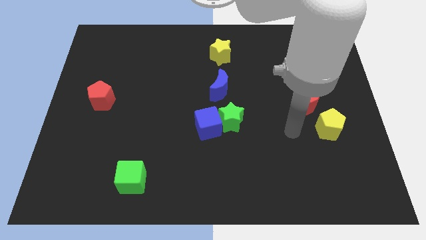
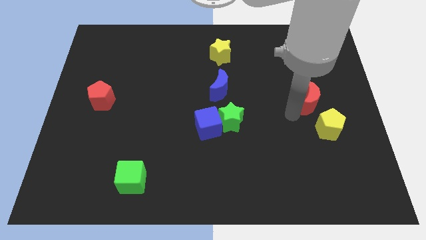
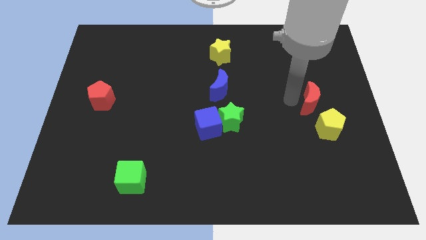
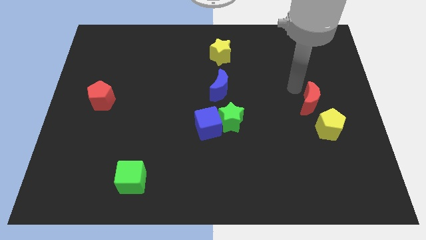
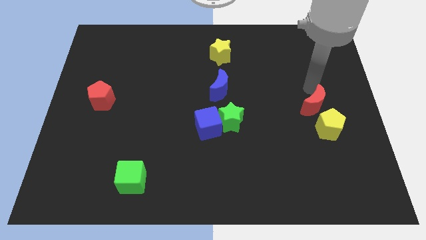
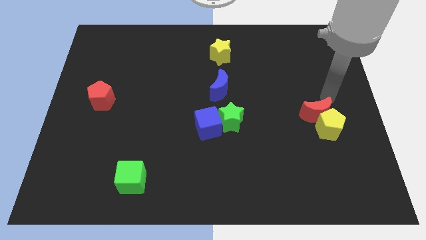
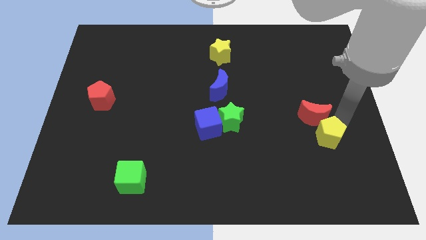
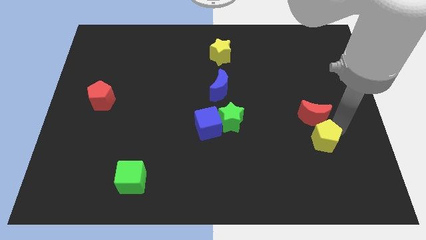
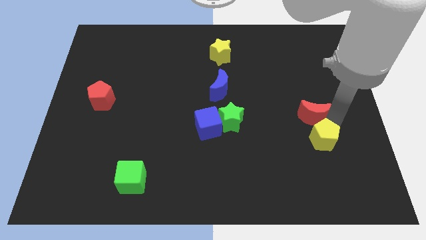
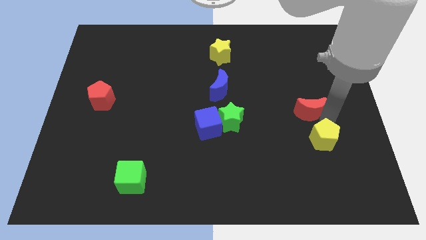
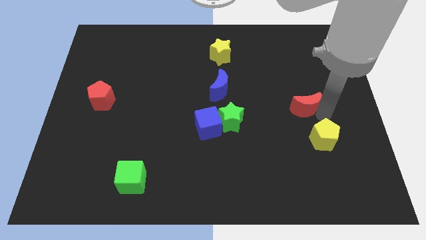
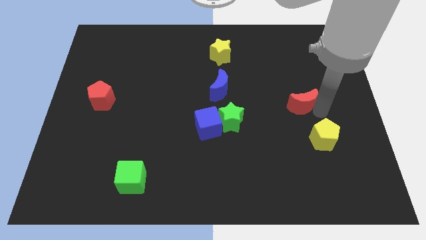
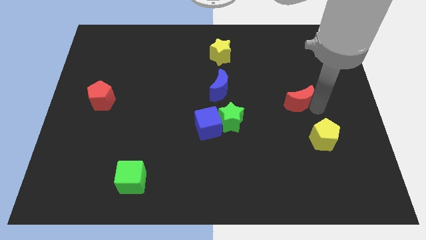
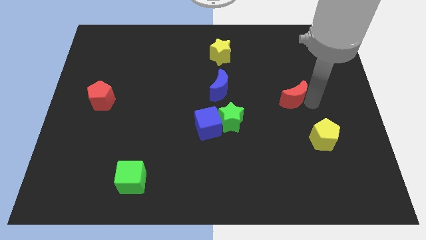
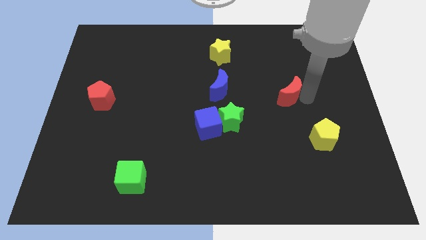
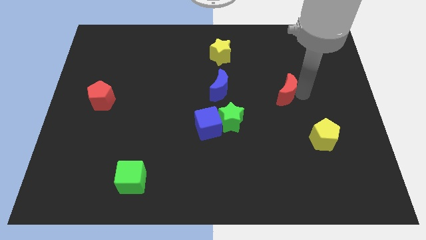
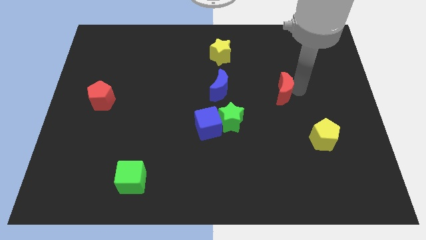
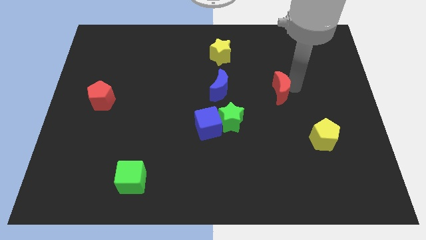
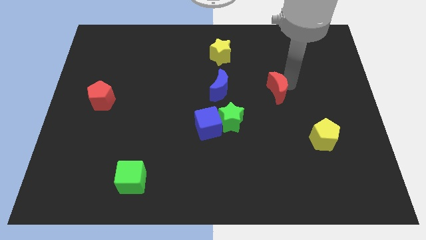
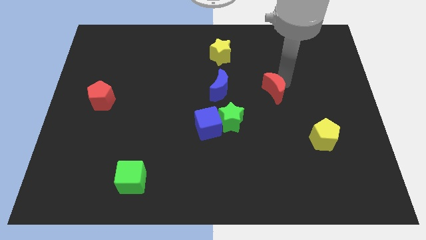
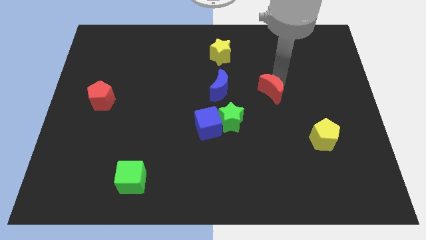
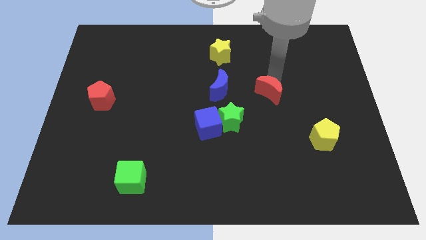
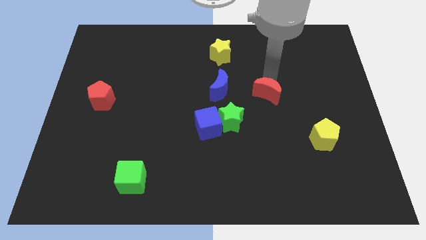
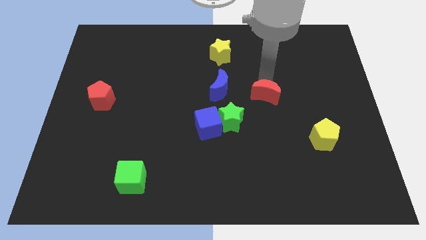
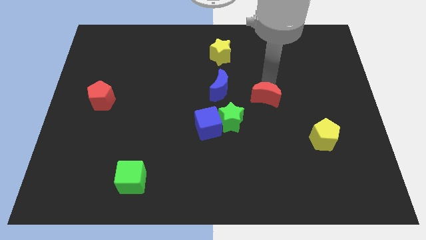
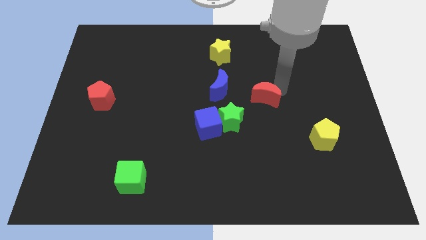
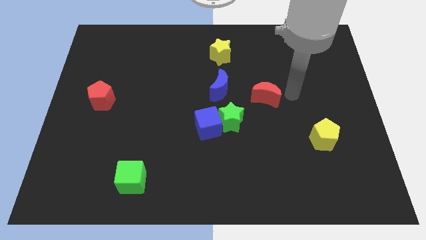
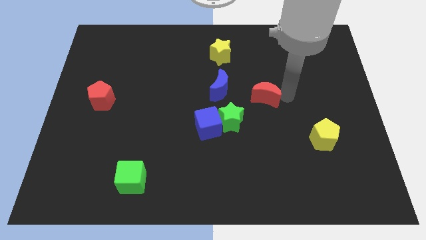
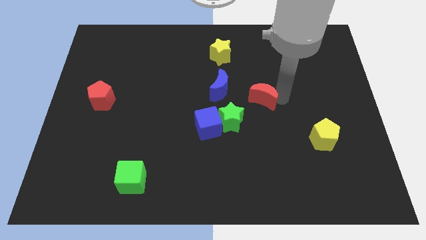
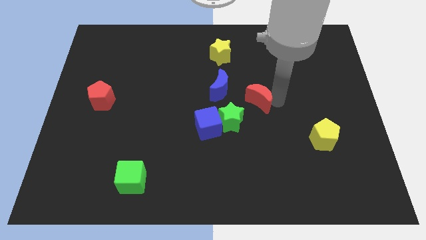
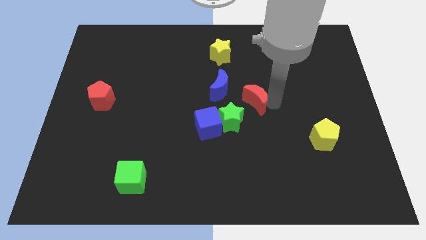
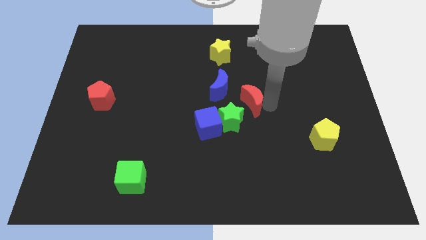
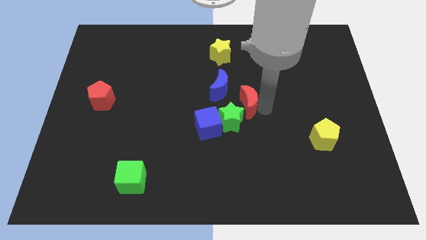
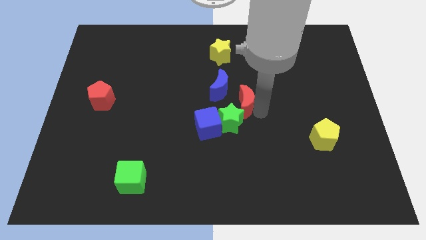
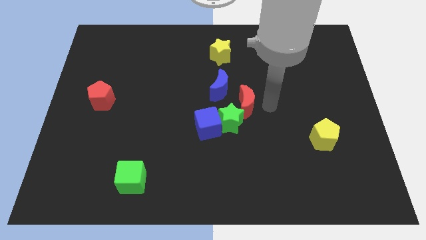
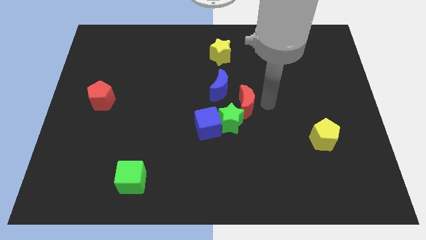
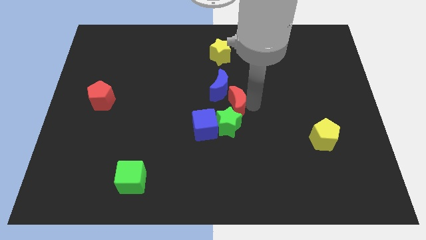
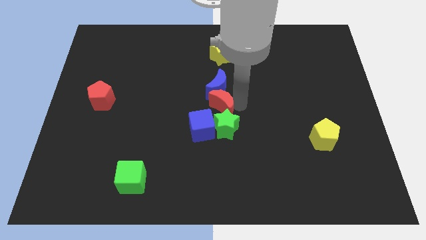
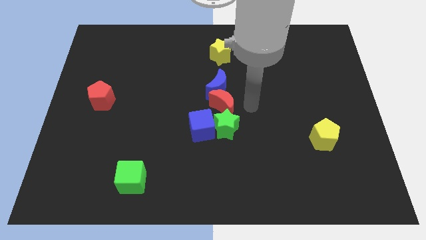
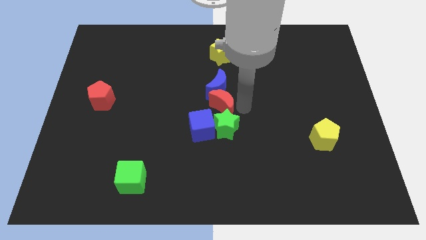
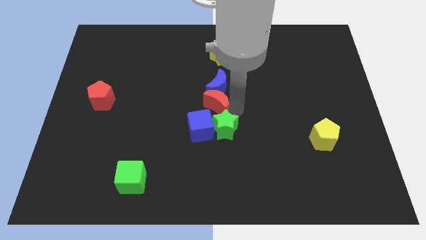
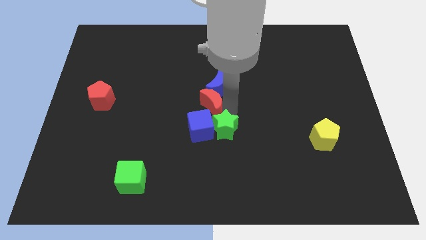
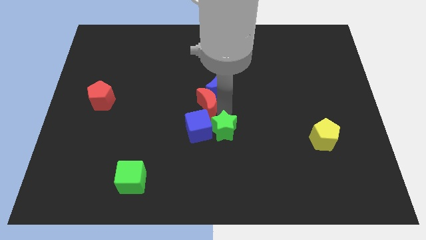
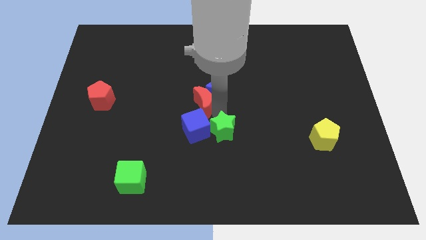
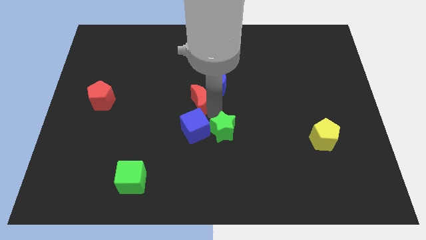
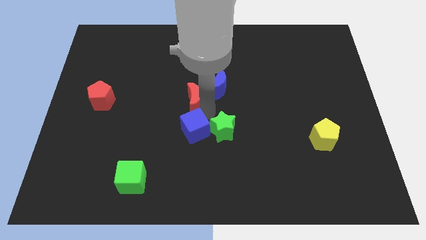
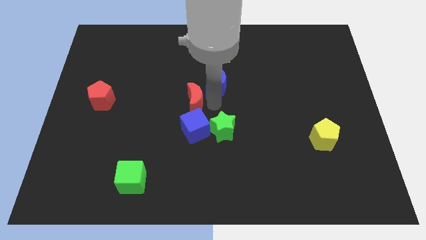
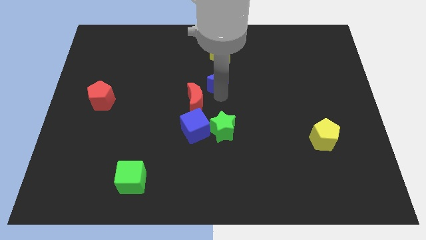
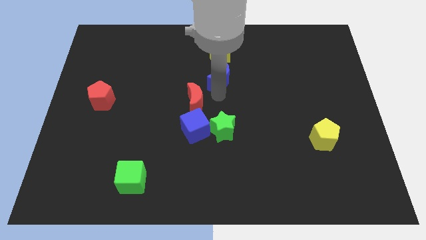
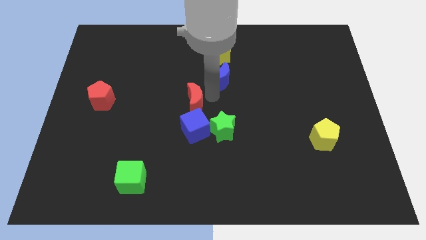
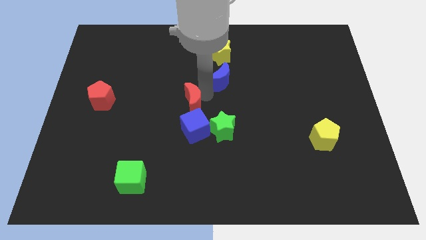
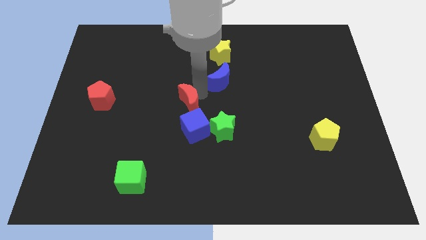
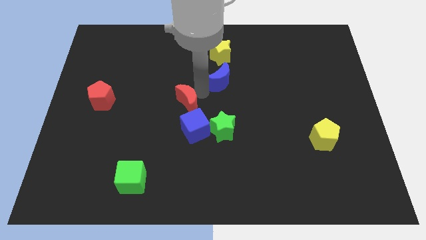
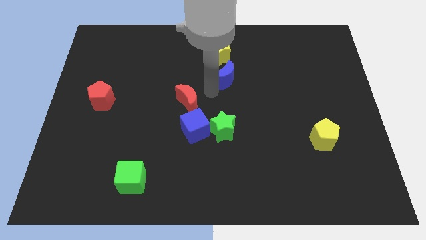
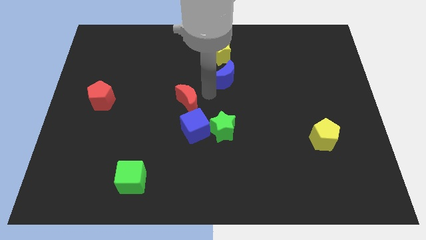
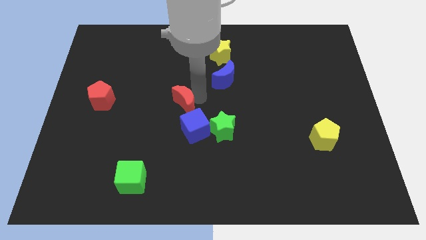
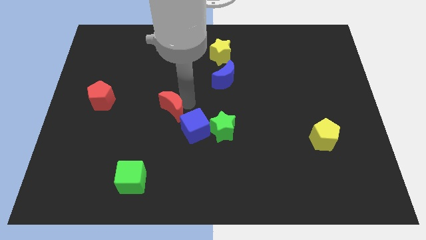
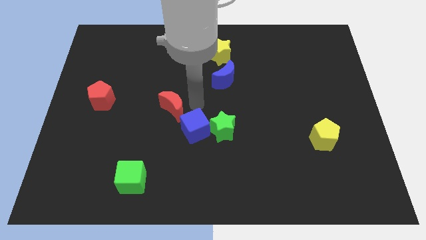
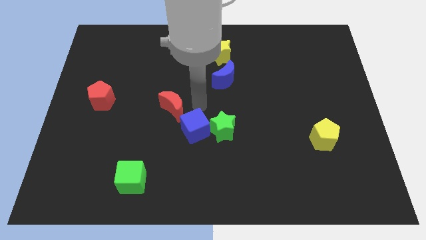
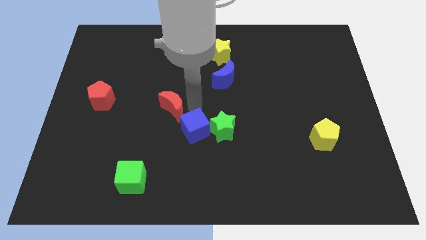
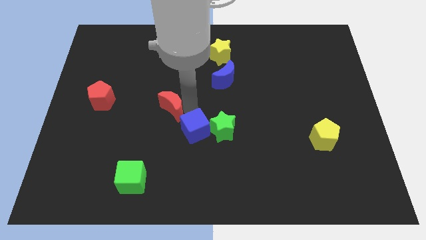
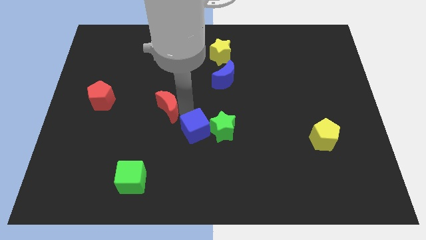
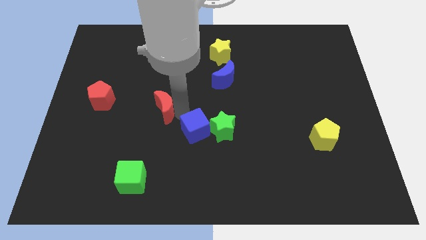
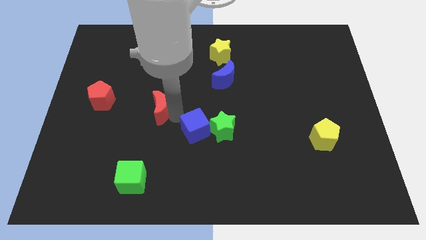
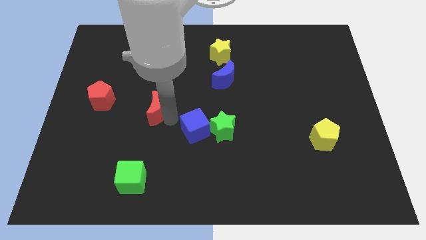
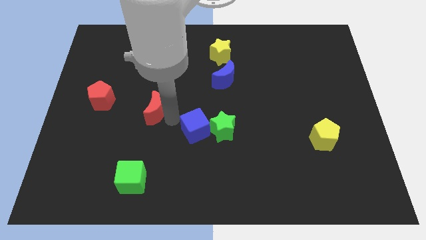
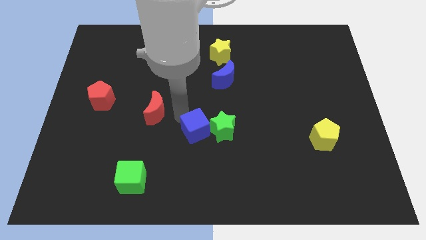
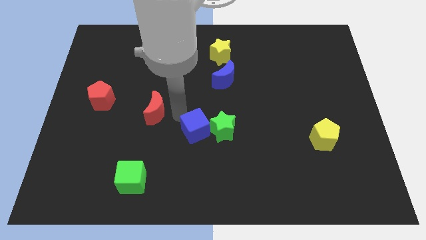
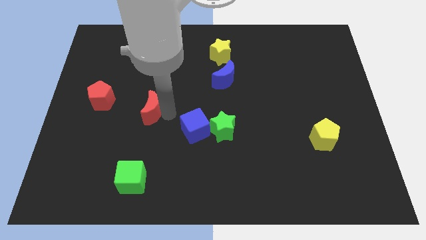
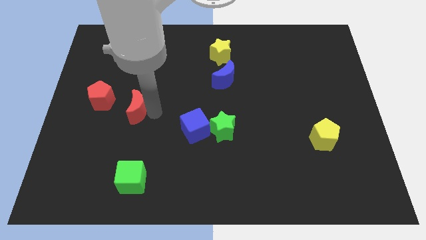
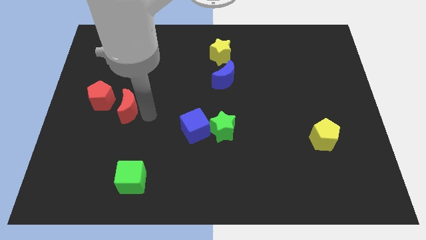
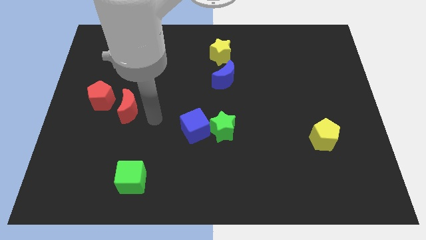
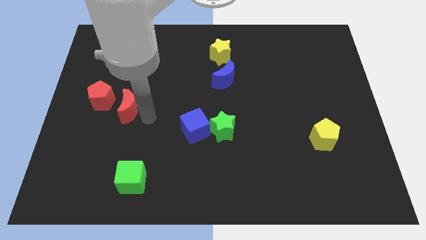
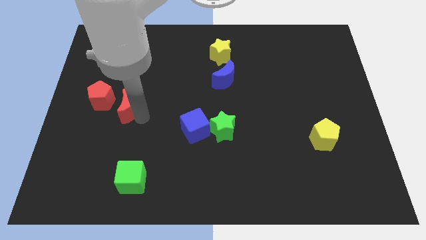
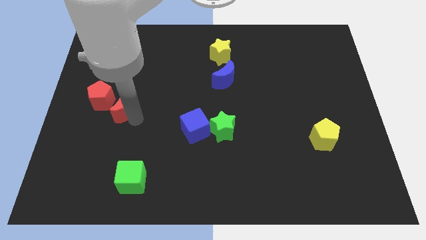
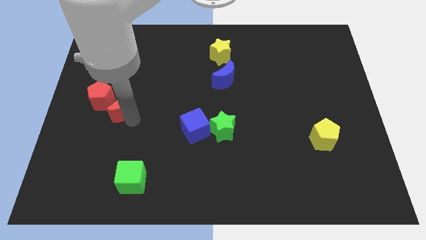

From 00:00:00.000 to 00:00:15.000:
move the red moon close to the red pentagon
